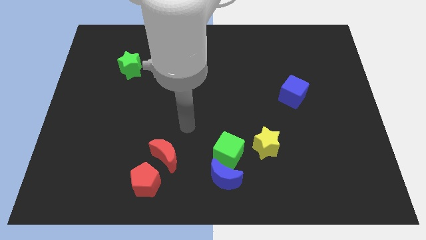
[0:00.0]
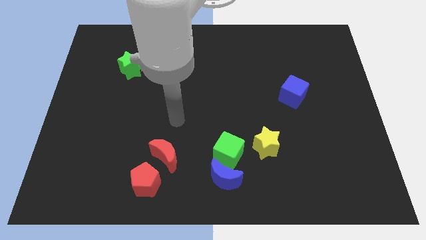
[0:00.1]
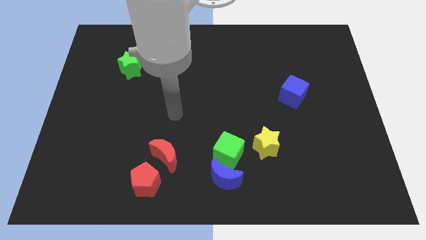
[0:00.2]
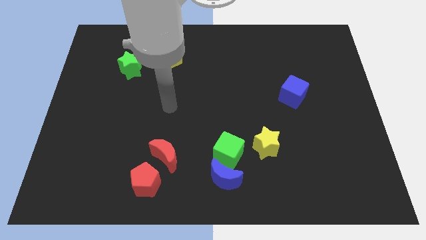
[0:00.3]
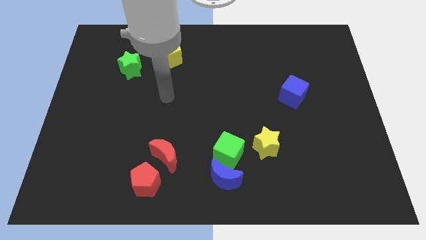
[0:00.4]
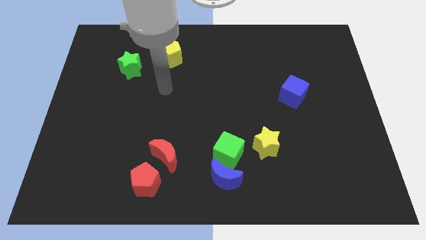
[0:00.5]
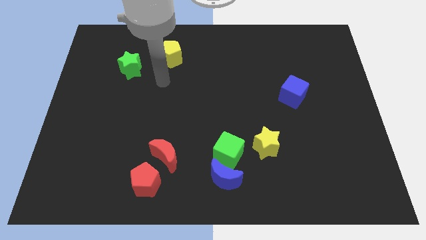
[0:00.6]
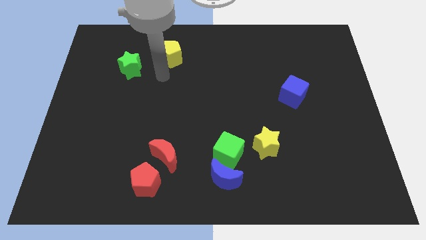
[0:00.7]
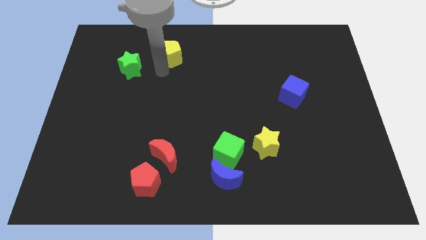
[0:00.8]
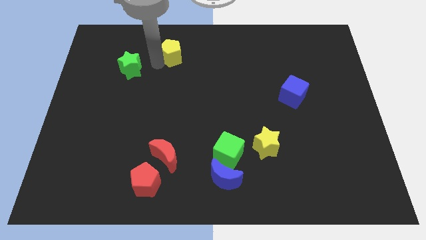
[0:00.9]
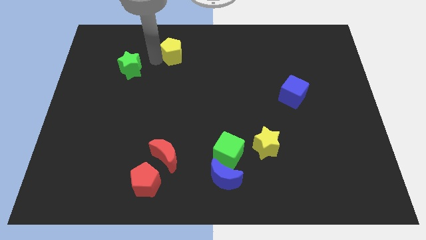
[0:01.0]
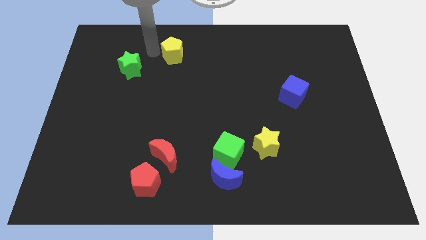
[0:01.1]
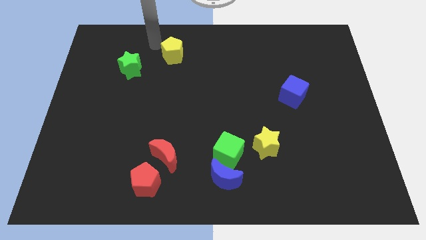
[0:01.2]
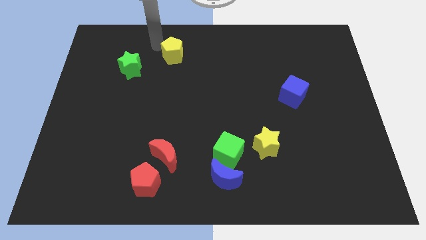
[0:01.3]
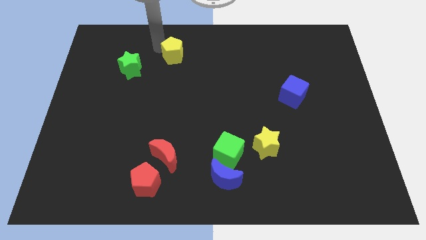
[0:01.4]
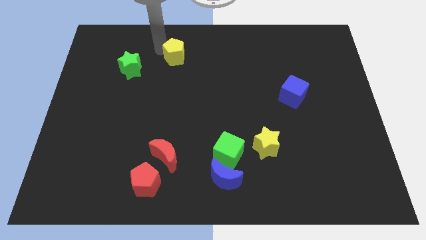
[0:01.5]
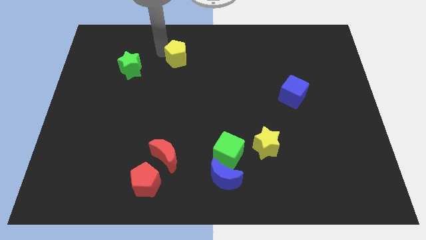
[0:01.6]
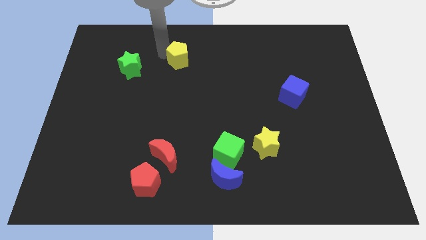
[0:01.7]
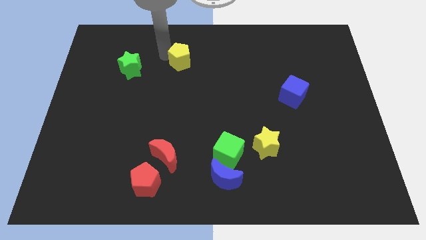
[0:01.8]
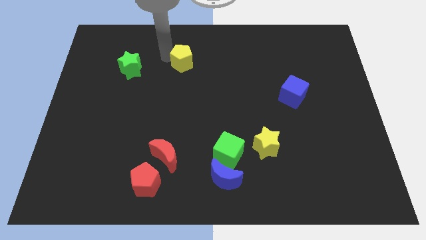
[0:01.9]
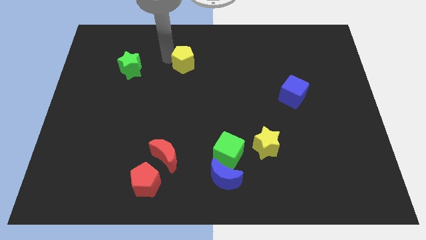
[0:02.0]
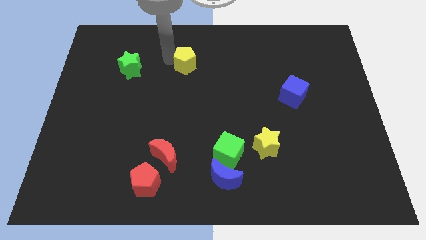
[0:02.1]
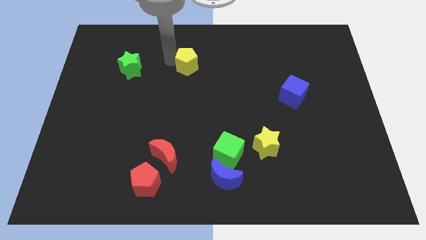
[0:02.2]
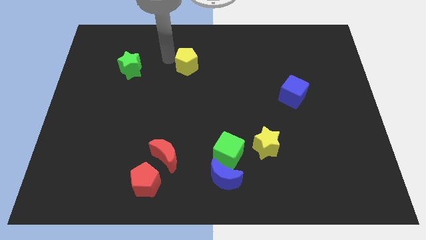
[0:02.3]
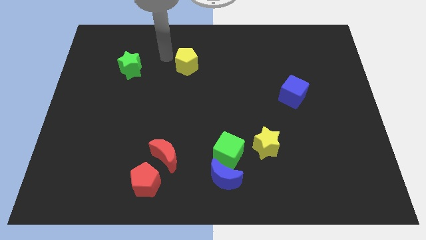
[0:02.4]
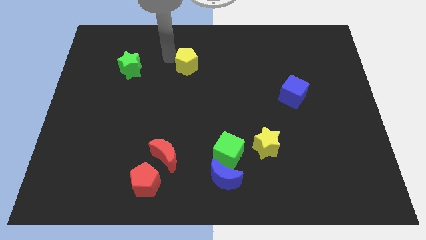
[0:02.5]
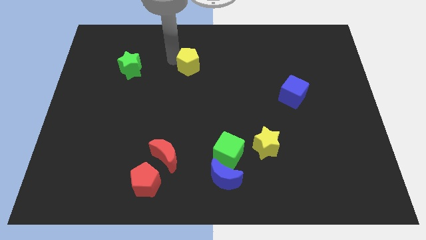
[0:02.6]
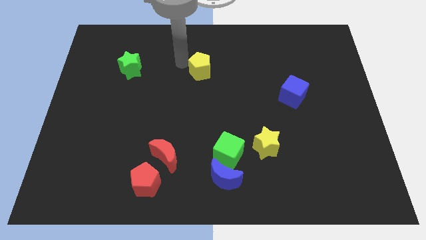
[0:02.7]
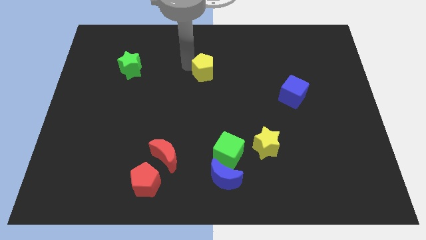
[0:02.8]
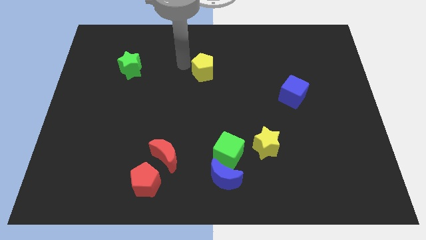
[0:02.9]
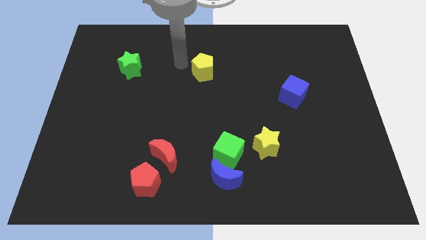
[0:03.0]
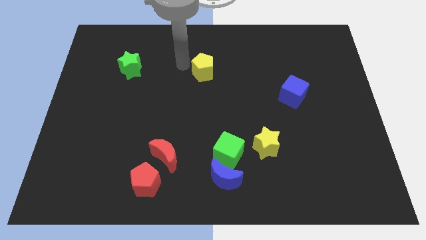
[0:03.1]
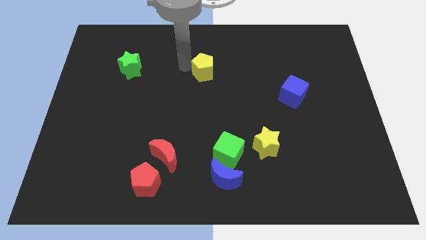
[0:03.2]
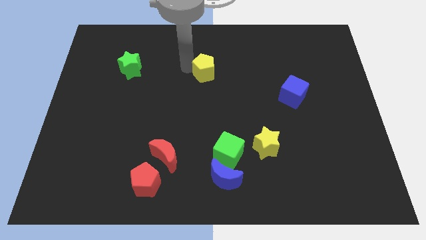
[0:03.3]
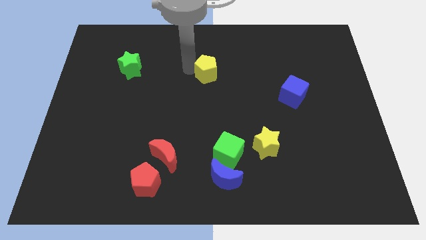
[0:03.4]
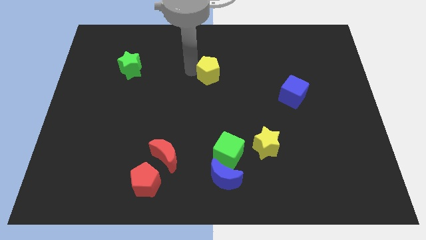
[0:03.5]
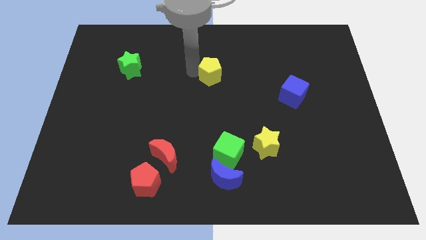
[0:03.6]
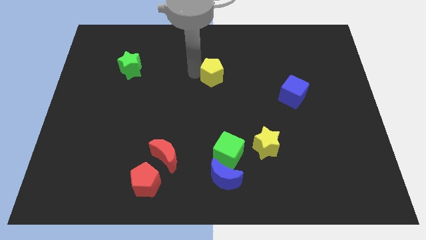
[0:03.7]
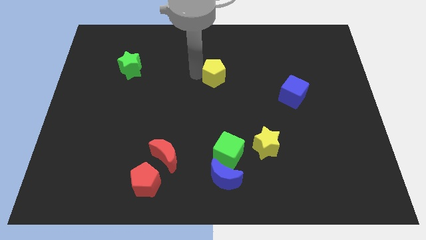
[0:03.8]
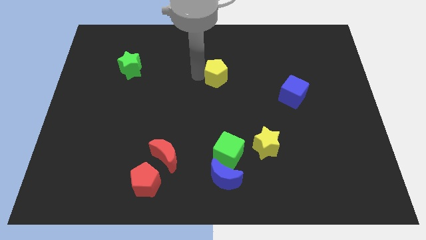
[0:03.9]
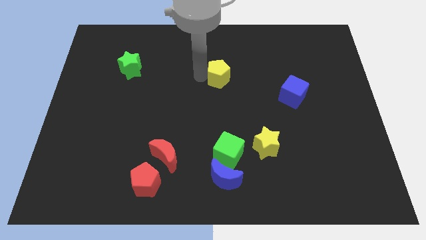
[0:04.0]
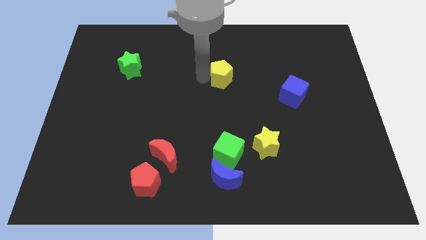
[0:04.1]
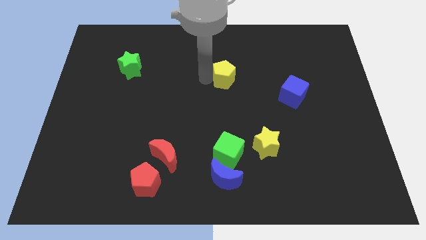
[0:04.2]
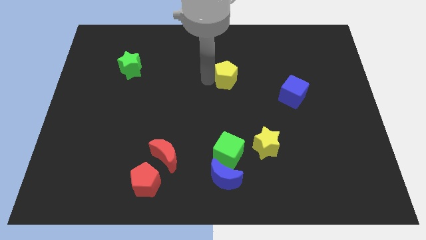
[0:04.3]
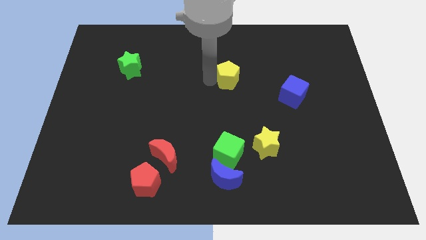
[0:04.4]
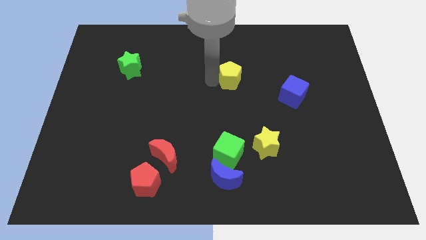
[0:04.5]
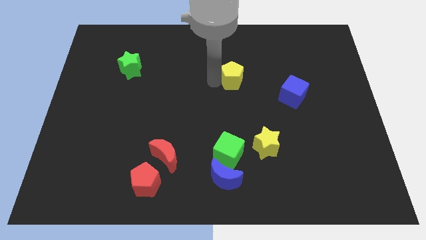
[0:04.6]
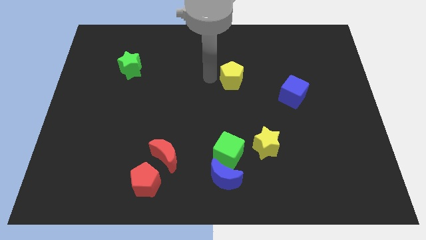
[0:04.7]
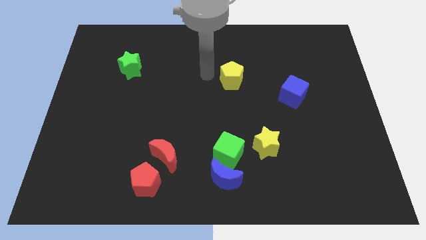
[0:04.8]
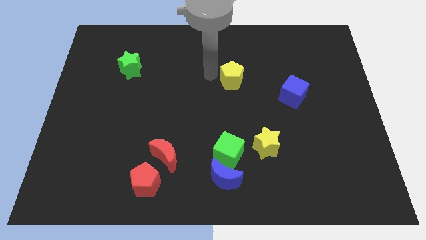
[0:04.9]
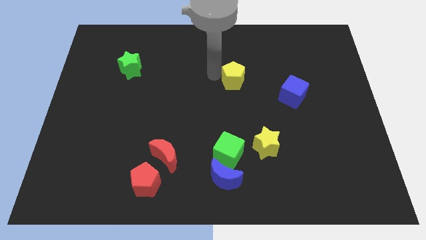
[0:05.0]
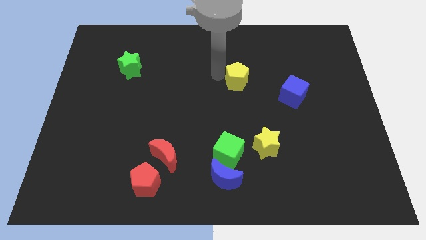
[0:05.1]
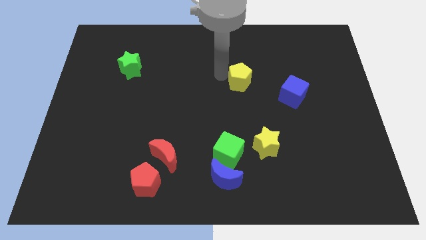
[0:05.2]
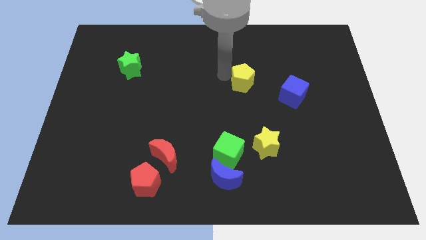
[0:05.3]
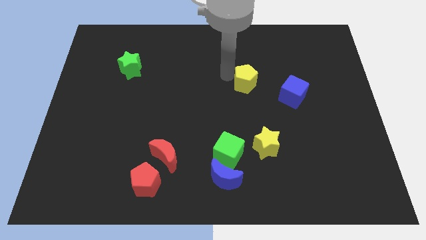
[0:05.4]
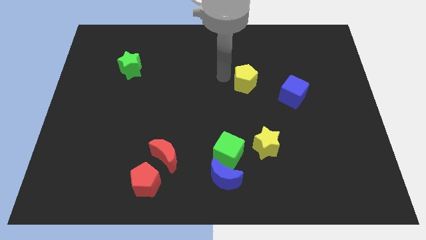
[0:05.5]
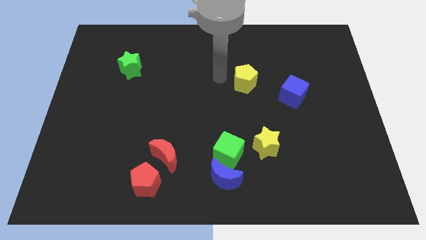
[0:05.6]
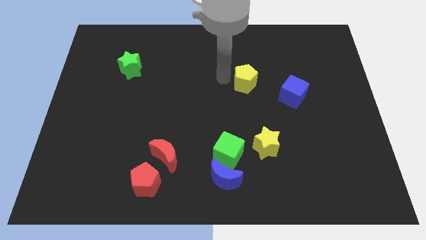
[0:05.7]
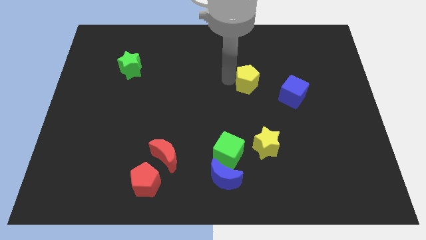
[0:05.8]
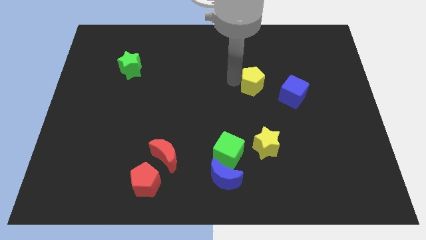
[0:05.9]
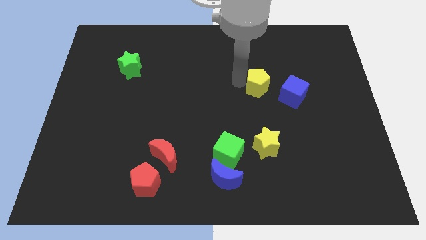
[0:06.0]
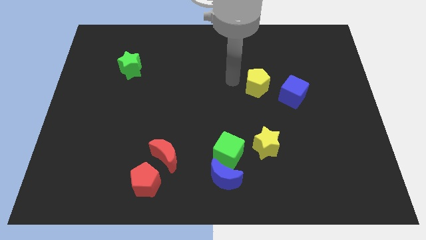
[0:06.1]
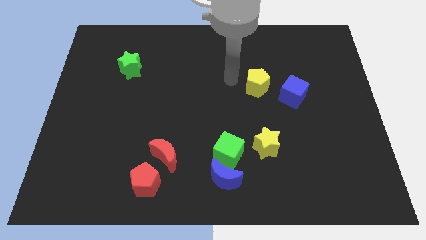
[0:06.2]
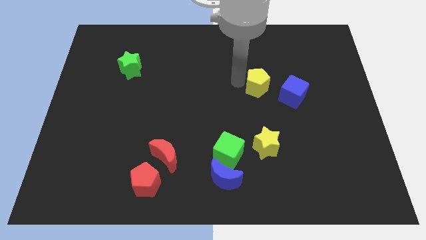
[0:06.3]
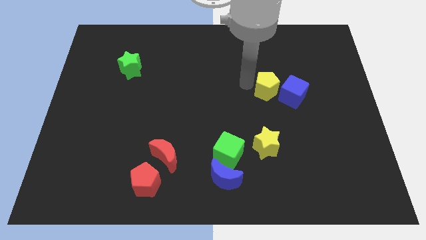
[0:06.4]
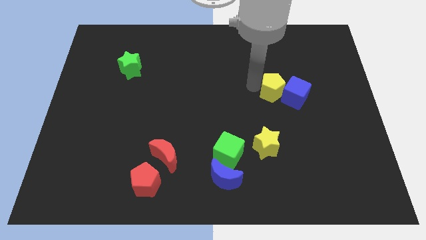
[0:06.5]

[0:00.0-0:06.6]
push the yellow pentagon close to the blue cube

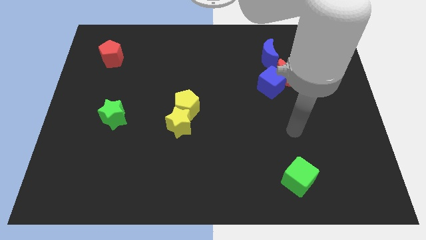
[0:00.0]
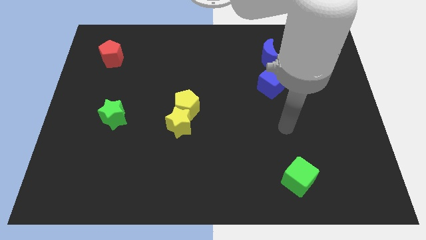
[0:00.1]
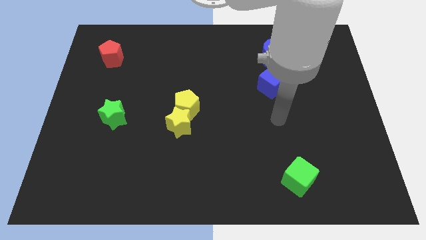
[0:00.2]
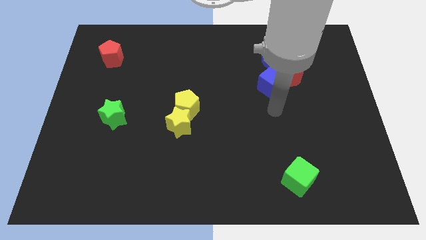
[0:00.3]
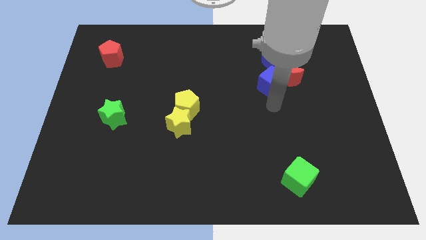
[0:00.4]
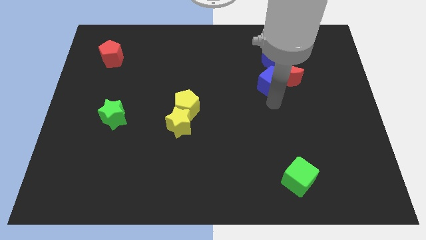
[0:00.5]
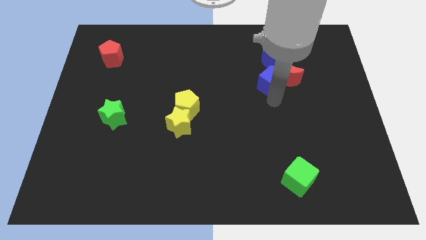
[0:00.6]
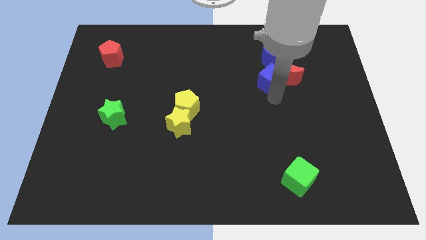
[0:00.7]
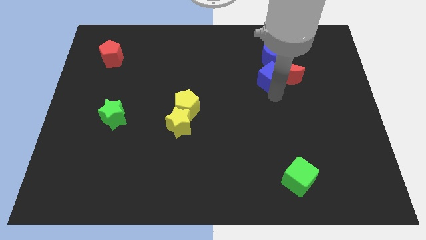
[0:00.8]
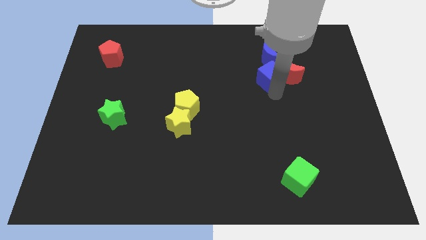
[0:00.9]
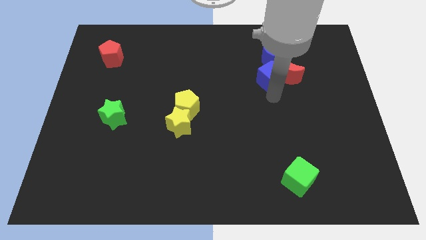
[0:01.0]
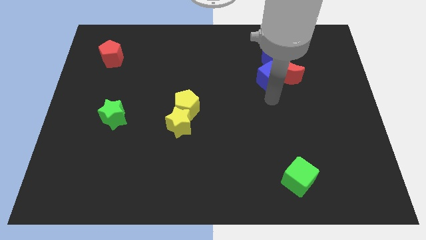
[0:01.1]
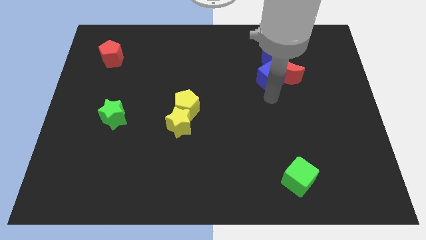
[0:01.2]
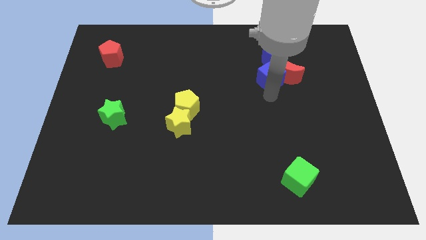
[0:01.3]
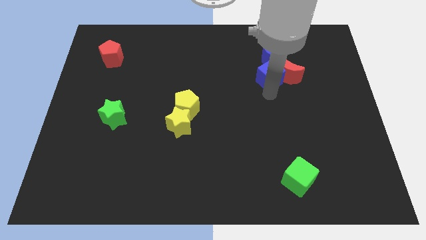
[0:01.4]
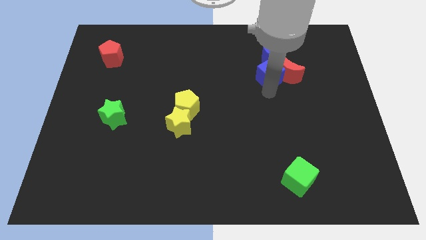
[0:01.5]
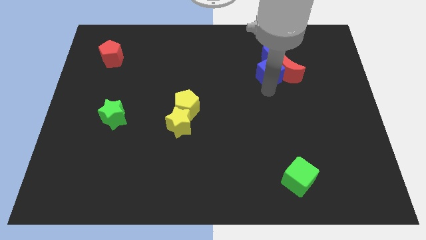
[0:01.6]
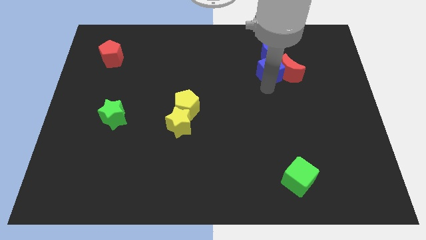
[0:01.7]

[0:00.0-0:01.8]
put the blue cube towards the blue moon
